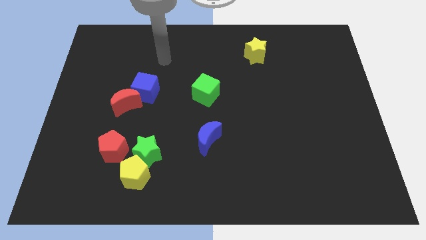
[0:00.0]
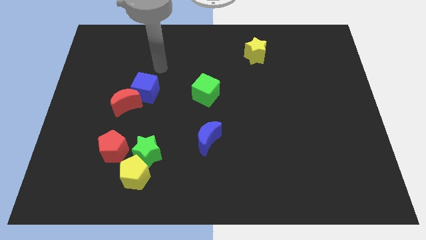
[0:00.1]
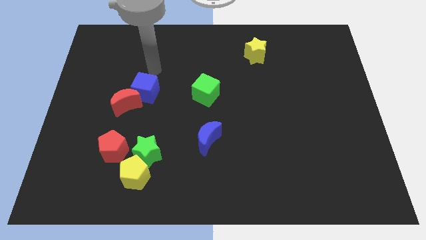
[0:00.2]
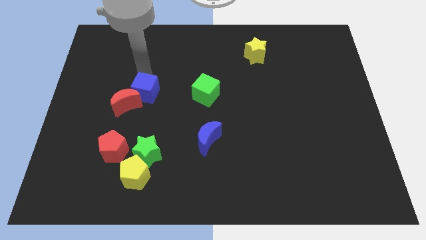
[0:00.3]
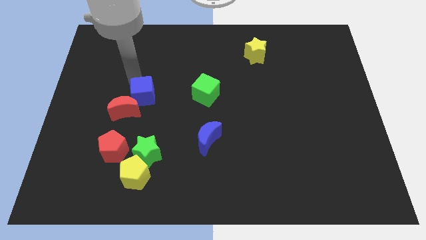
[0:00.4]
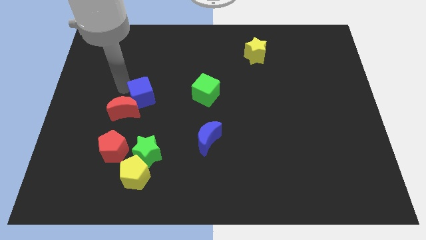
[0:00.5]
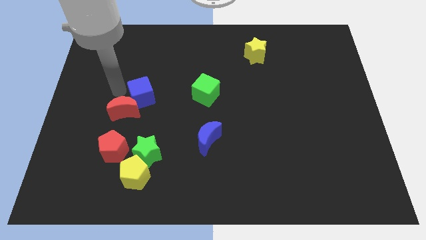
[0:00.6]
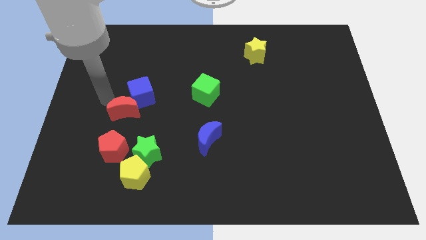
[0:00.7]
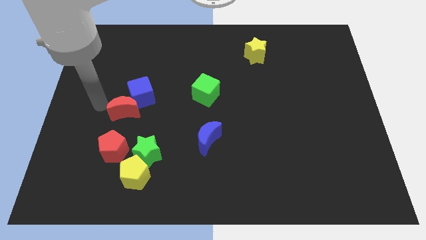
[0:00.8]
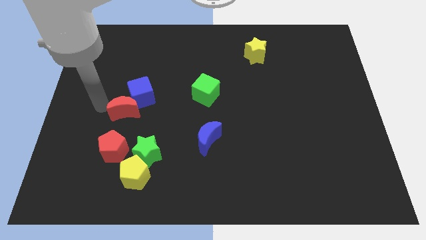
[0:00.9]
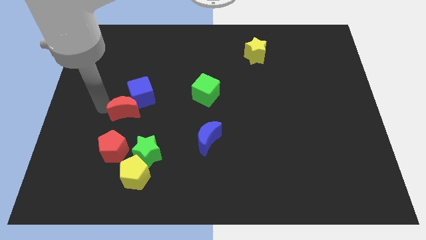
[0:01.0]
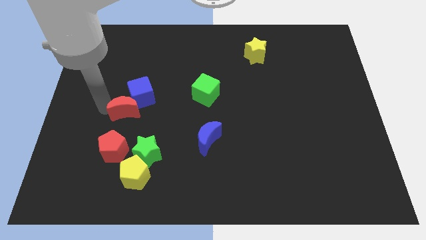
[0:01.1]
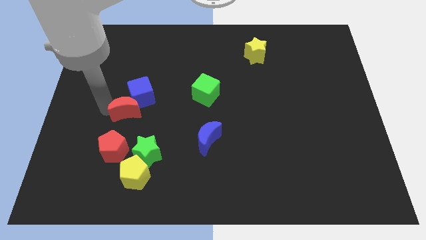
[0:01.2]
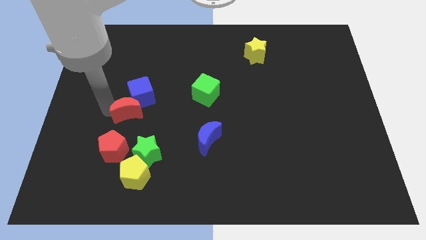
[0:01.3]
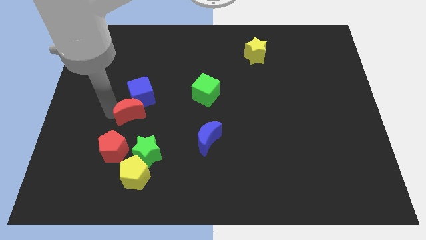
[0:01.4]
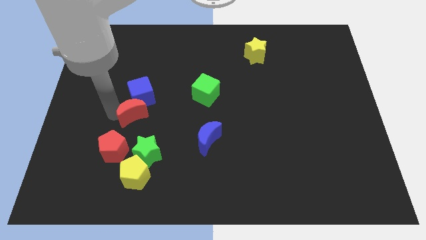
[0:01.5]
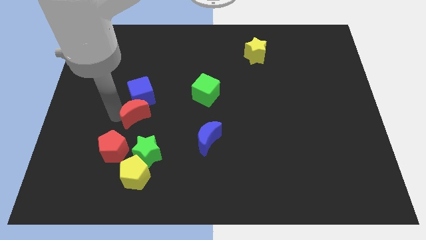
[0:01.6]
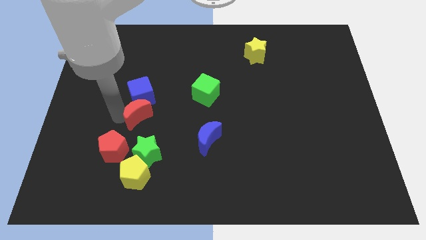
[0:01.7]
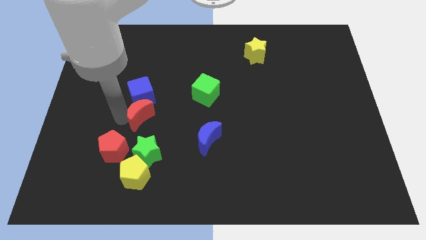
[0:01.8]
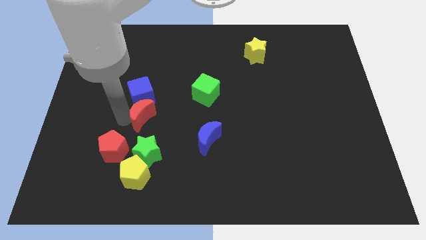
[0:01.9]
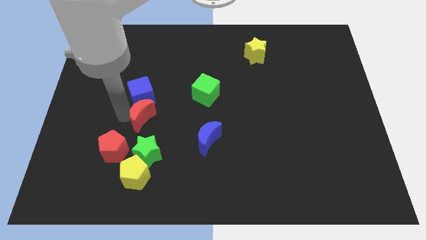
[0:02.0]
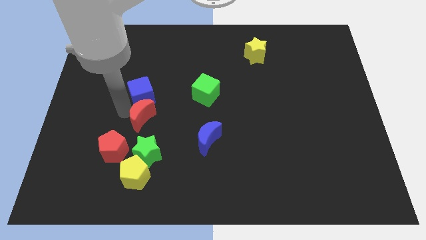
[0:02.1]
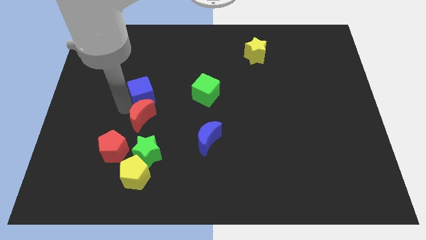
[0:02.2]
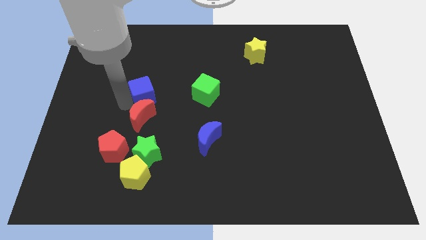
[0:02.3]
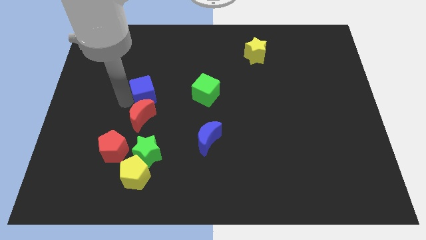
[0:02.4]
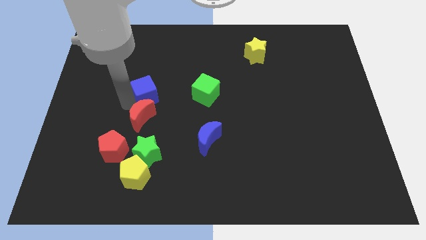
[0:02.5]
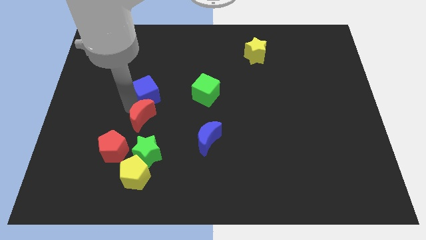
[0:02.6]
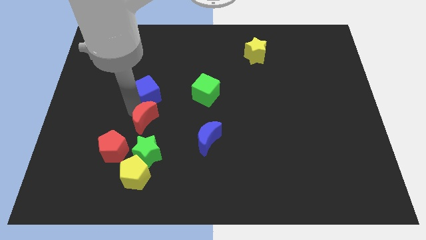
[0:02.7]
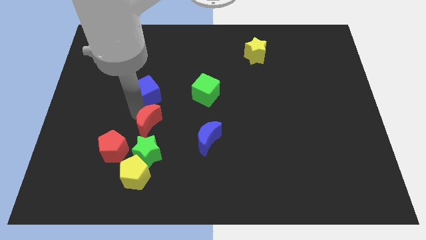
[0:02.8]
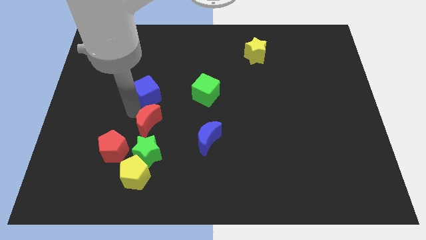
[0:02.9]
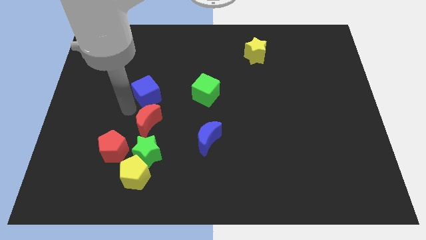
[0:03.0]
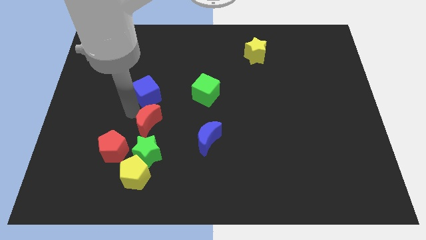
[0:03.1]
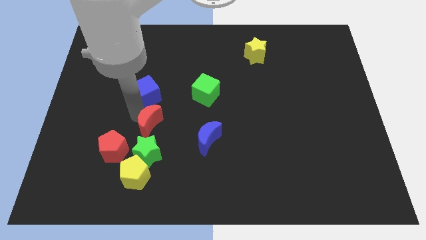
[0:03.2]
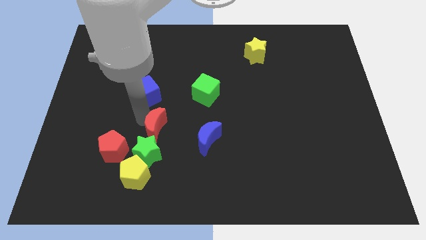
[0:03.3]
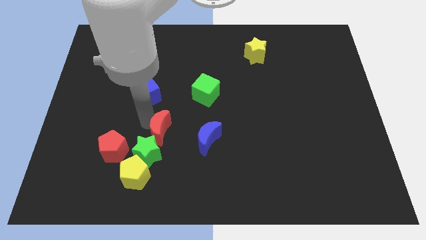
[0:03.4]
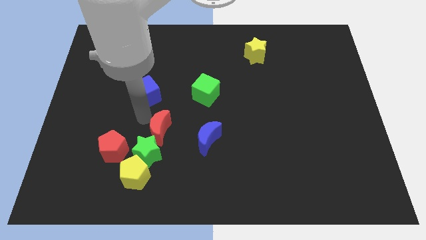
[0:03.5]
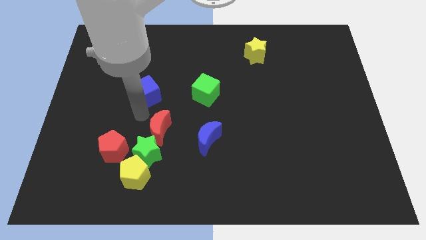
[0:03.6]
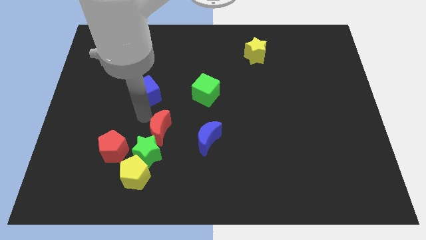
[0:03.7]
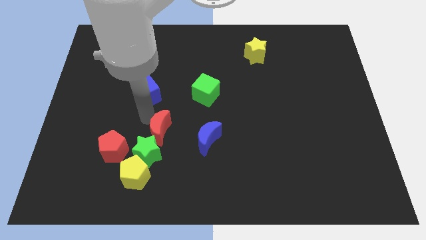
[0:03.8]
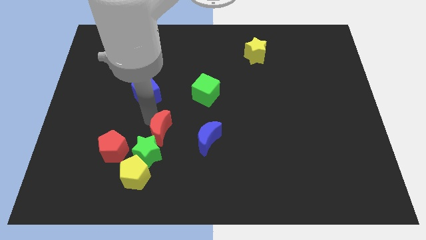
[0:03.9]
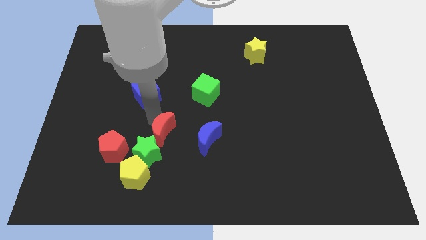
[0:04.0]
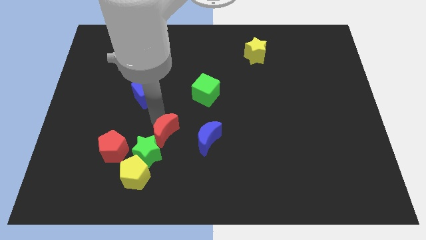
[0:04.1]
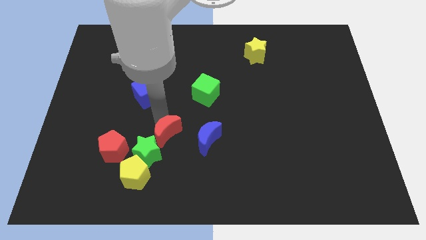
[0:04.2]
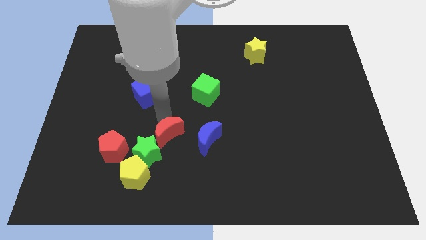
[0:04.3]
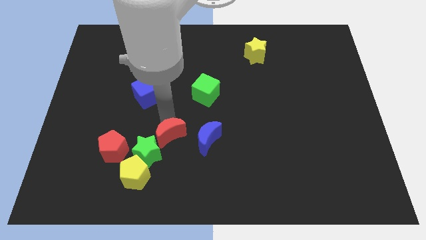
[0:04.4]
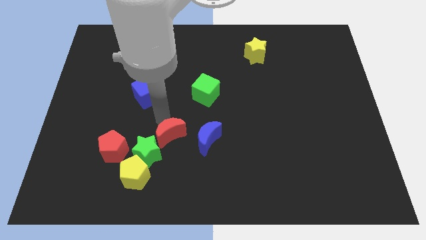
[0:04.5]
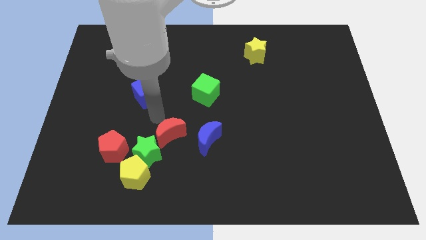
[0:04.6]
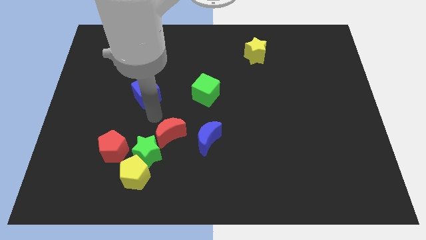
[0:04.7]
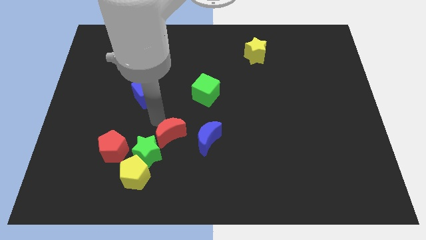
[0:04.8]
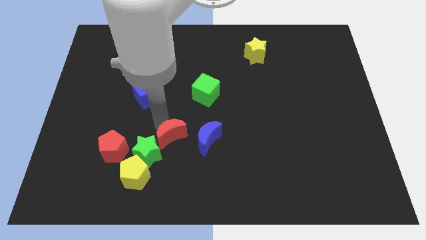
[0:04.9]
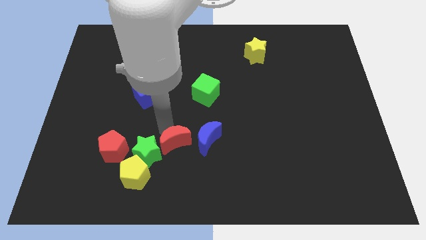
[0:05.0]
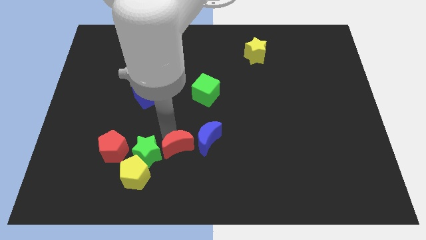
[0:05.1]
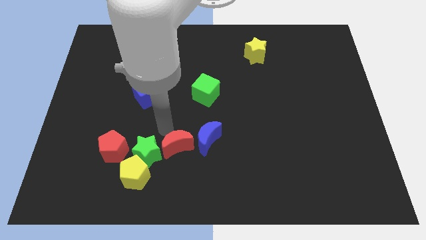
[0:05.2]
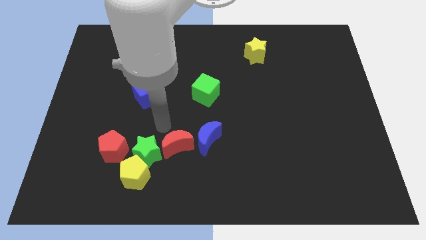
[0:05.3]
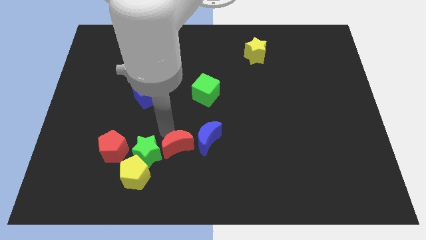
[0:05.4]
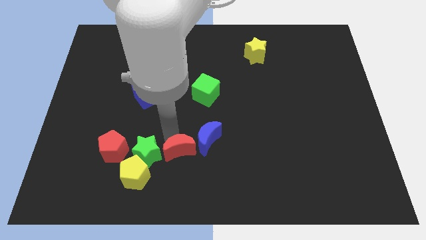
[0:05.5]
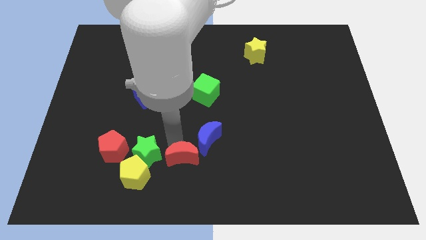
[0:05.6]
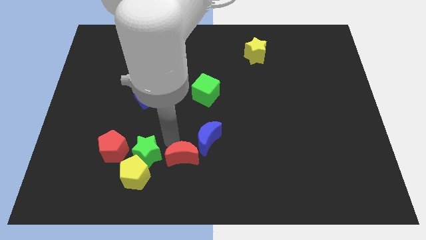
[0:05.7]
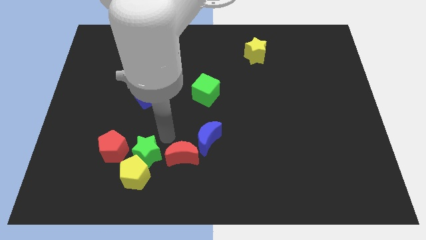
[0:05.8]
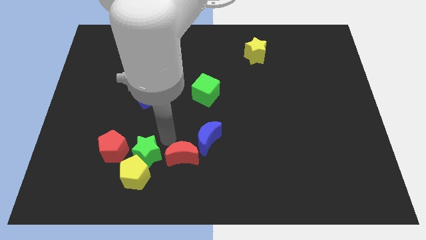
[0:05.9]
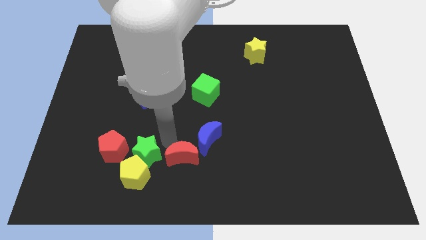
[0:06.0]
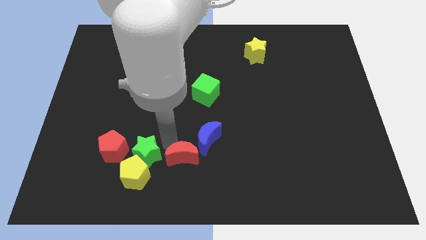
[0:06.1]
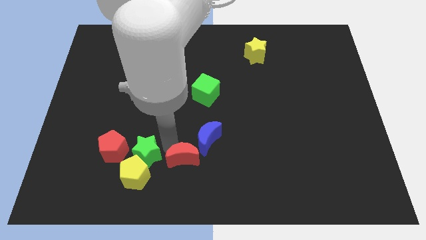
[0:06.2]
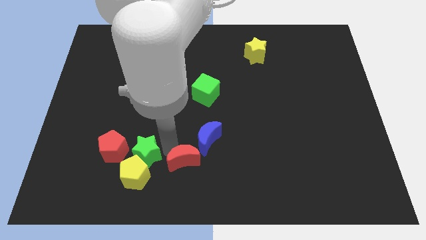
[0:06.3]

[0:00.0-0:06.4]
move the red moon to the bottom

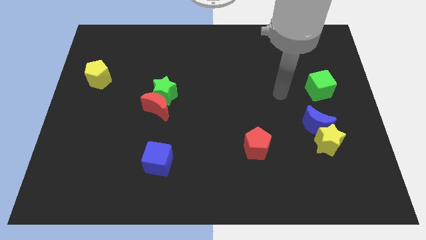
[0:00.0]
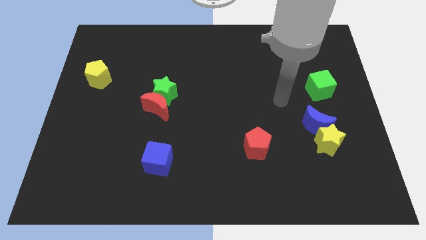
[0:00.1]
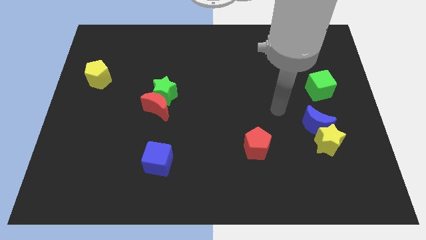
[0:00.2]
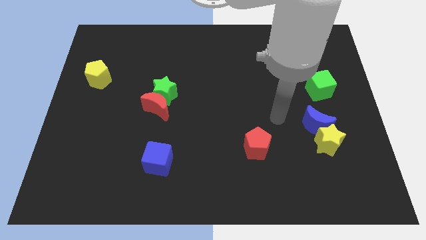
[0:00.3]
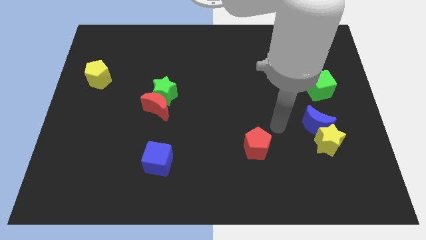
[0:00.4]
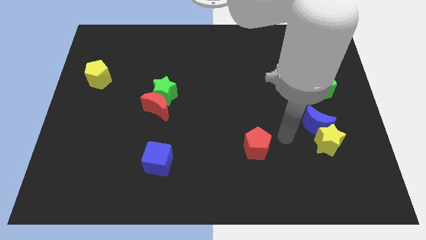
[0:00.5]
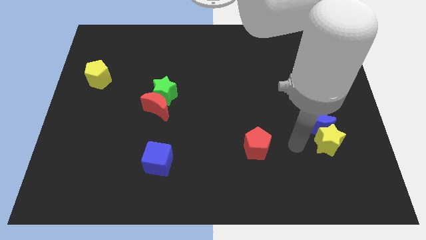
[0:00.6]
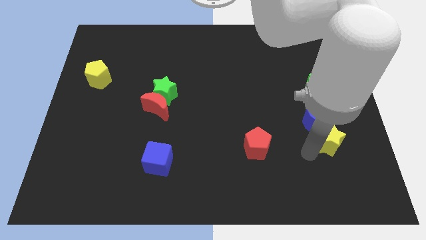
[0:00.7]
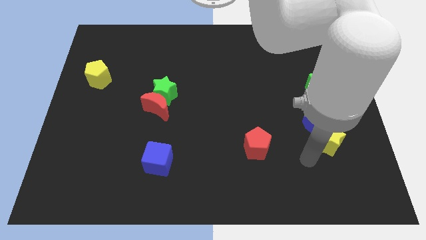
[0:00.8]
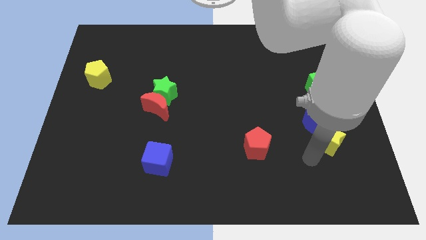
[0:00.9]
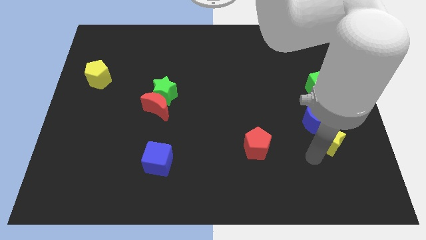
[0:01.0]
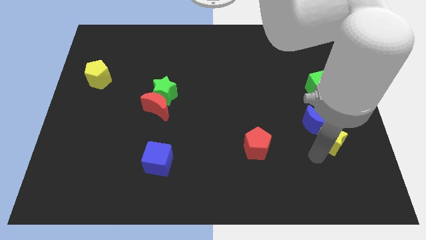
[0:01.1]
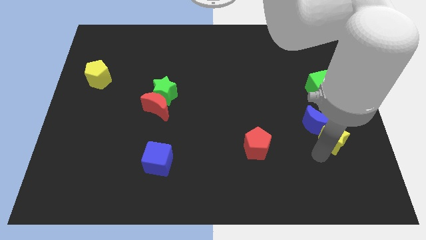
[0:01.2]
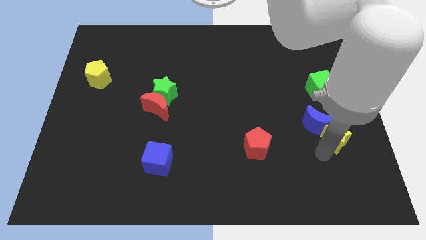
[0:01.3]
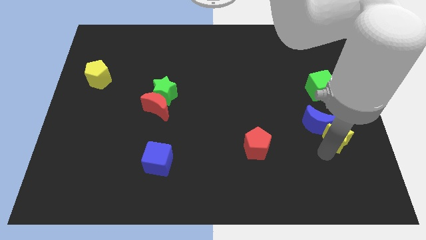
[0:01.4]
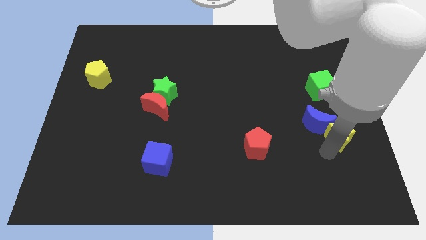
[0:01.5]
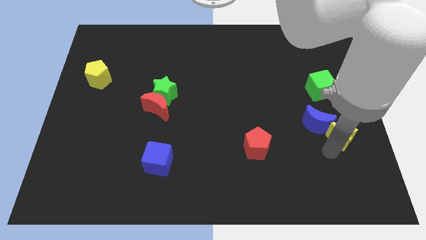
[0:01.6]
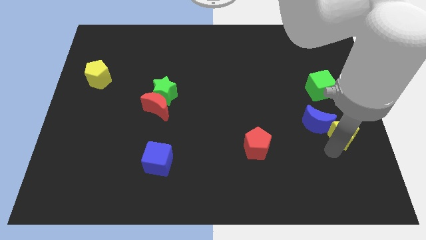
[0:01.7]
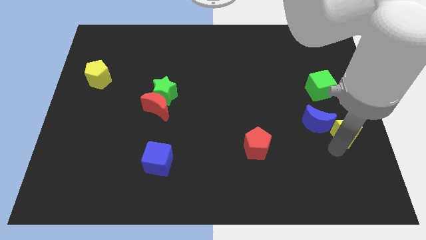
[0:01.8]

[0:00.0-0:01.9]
push the yellow star to the right side of the board
